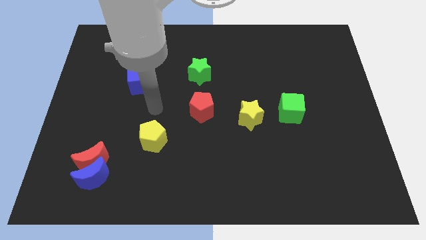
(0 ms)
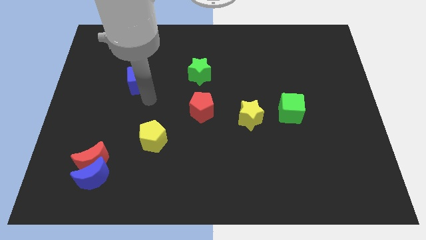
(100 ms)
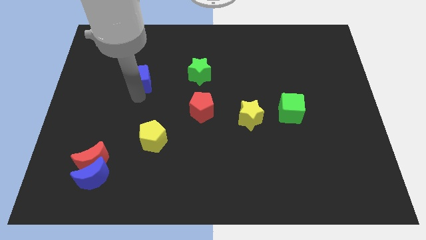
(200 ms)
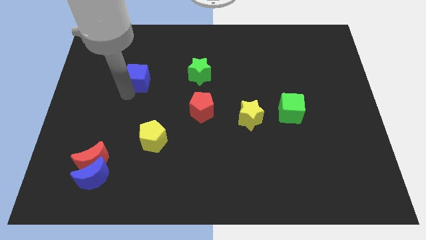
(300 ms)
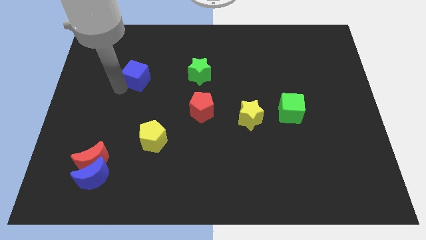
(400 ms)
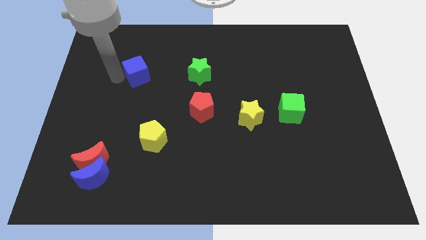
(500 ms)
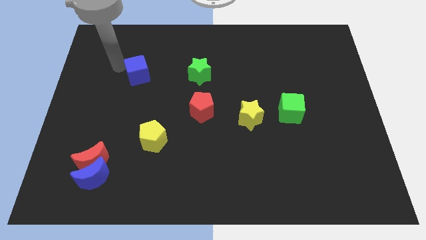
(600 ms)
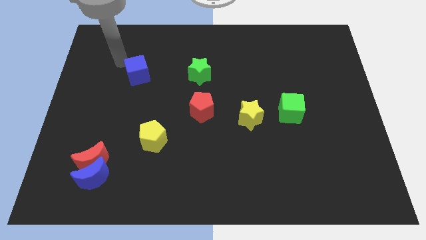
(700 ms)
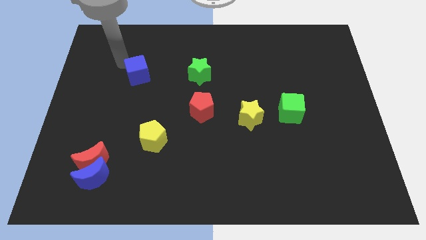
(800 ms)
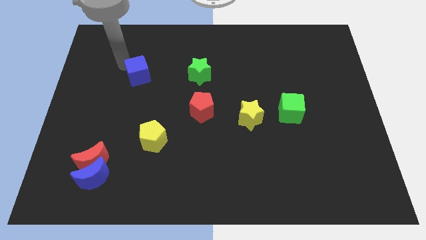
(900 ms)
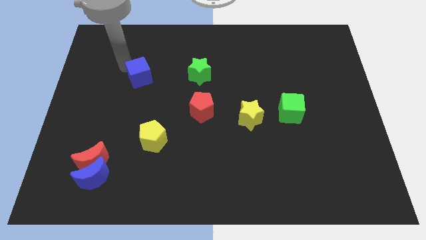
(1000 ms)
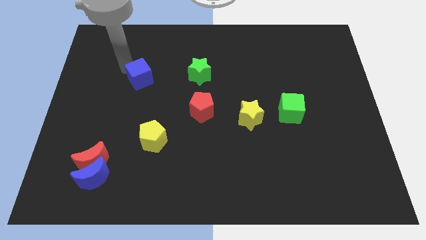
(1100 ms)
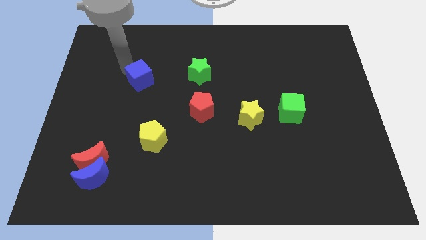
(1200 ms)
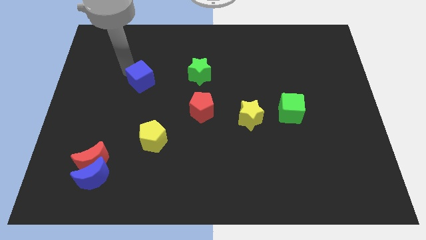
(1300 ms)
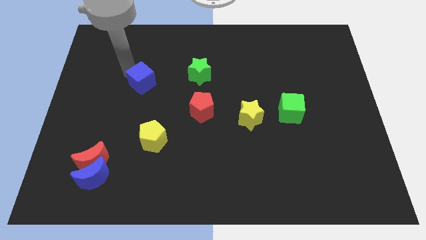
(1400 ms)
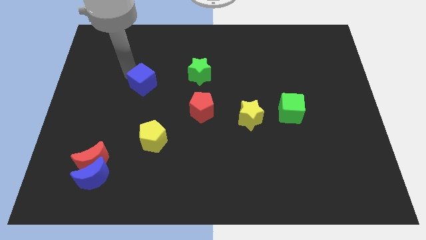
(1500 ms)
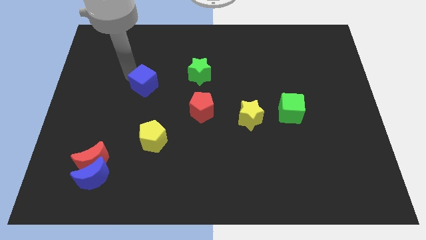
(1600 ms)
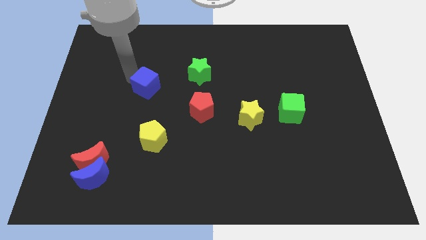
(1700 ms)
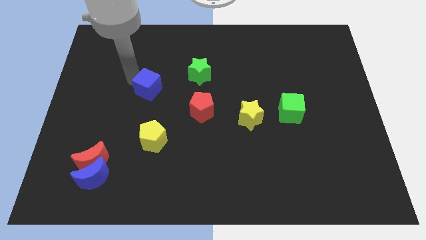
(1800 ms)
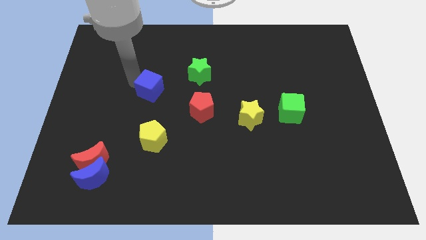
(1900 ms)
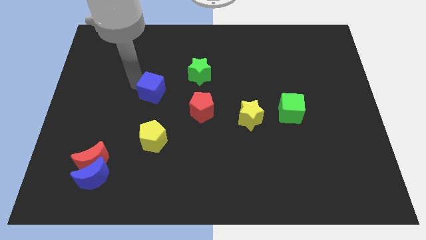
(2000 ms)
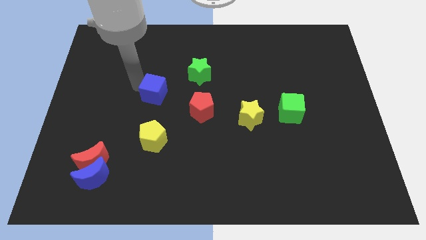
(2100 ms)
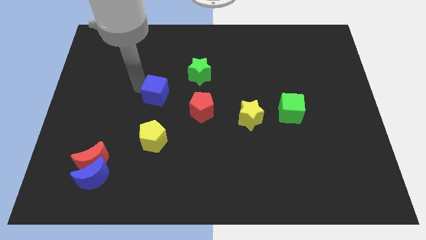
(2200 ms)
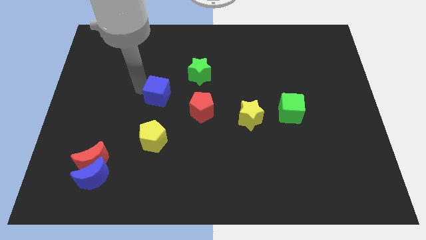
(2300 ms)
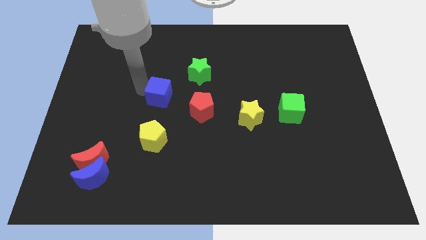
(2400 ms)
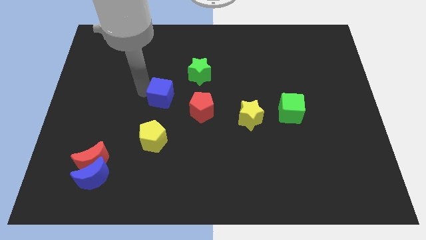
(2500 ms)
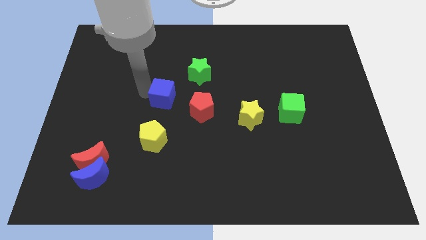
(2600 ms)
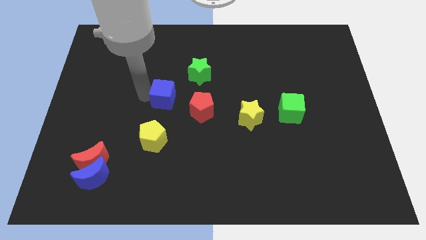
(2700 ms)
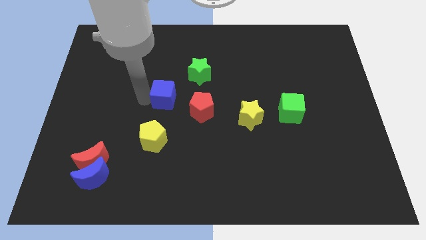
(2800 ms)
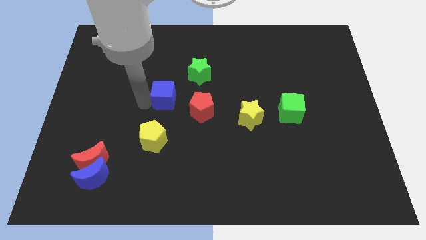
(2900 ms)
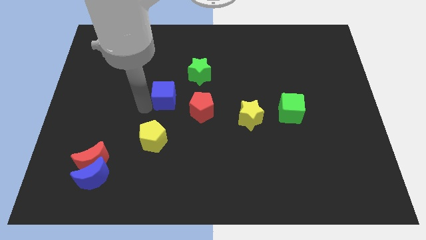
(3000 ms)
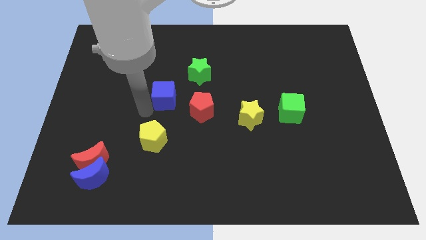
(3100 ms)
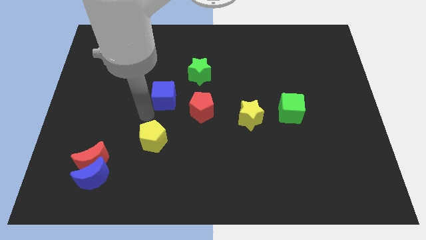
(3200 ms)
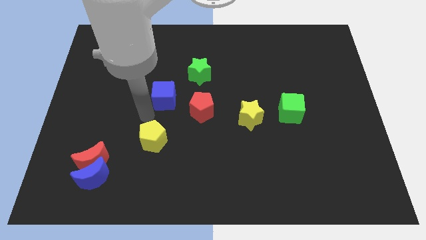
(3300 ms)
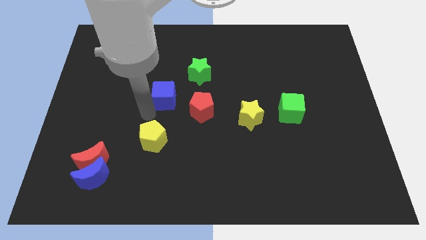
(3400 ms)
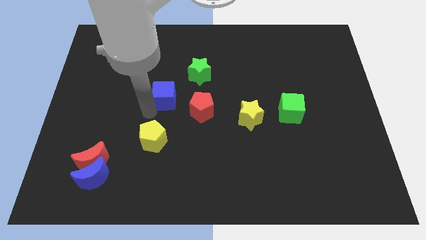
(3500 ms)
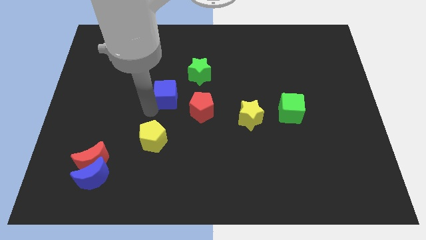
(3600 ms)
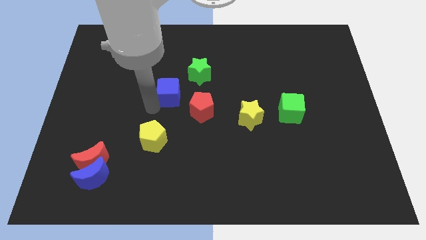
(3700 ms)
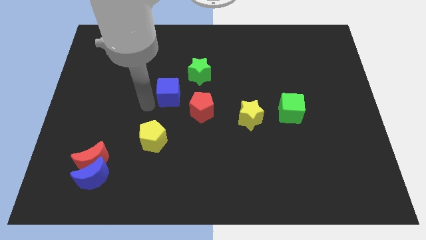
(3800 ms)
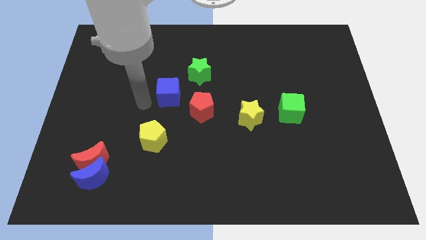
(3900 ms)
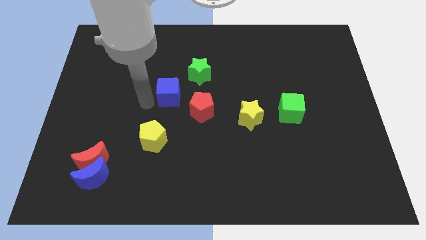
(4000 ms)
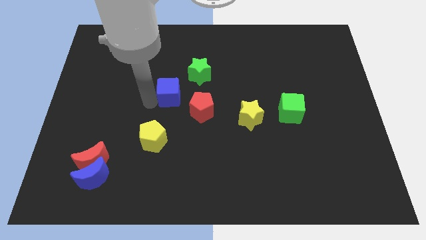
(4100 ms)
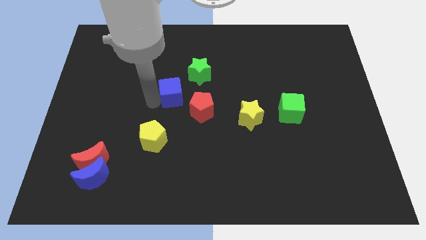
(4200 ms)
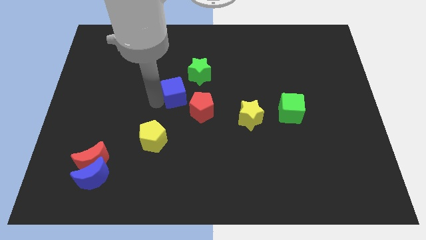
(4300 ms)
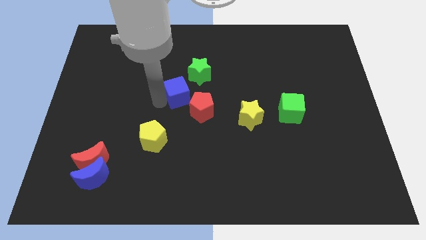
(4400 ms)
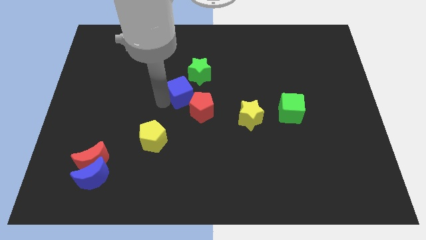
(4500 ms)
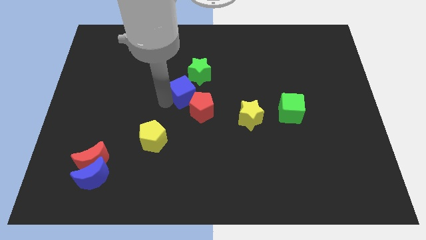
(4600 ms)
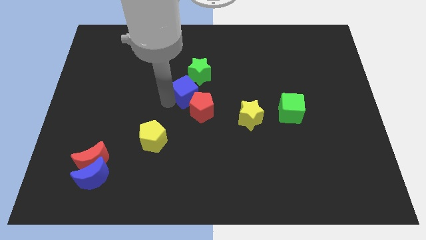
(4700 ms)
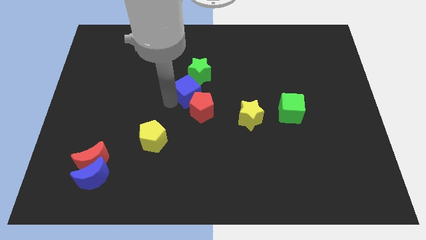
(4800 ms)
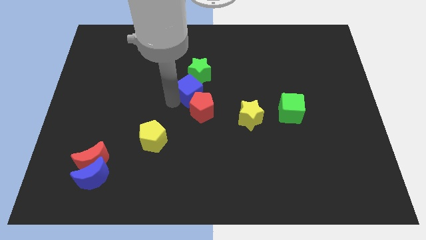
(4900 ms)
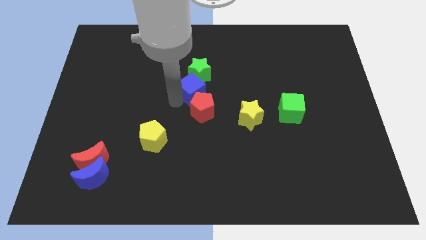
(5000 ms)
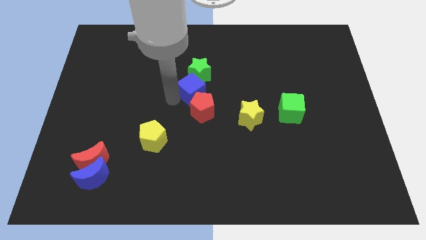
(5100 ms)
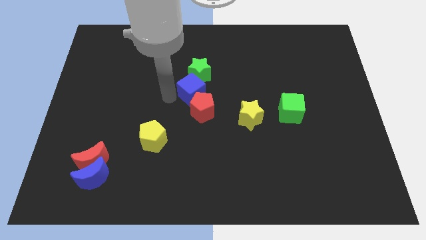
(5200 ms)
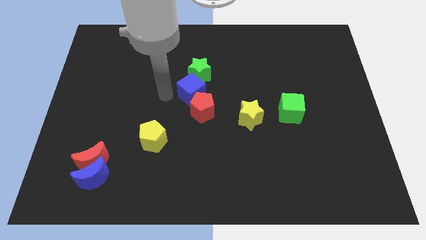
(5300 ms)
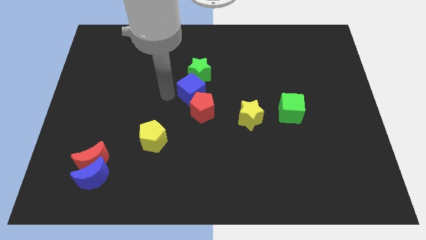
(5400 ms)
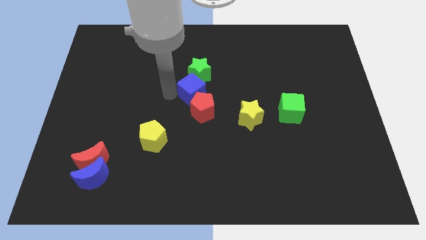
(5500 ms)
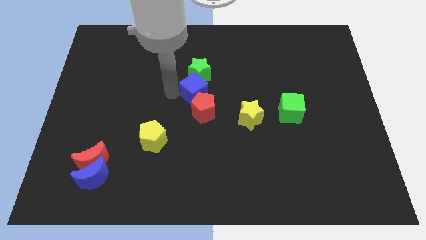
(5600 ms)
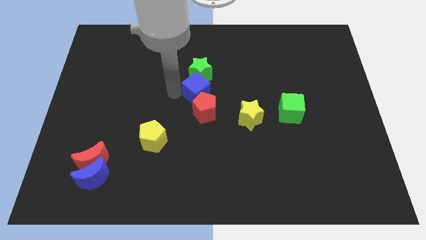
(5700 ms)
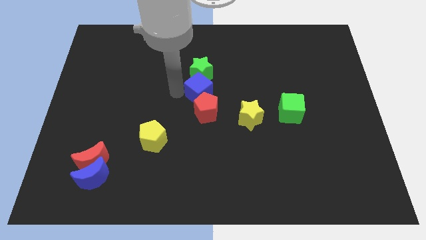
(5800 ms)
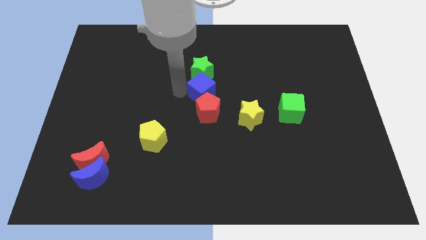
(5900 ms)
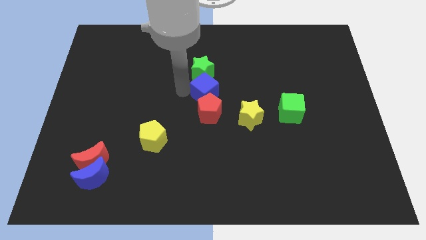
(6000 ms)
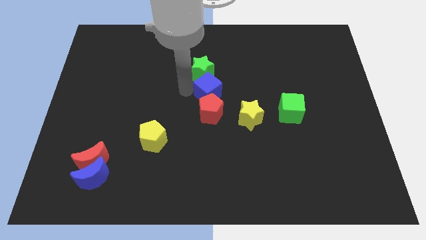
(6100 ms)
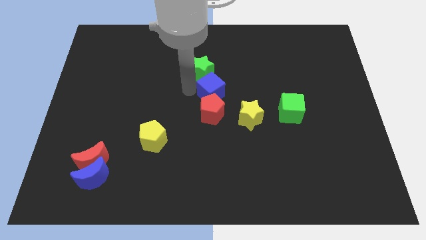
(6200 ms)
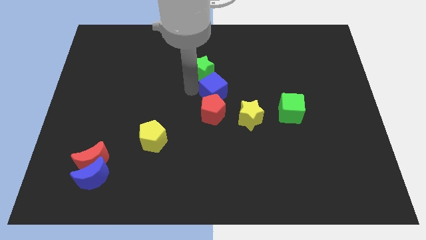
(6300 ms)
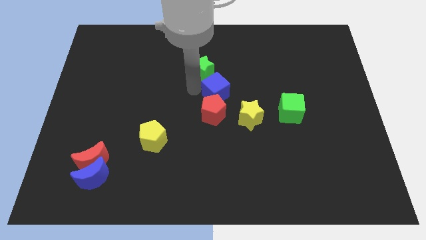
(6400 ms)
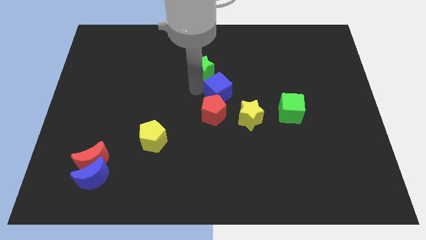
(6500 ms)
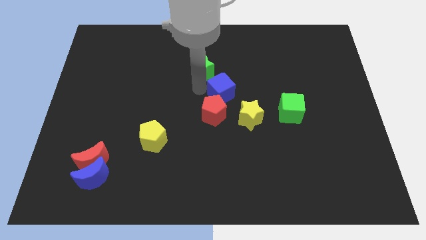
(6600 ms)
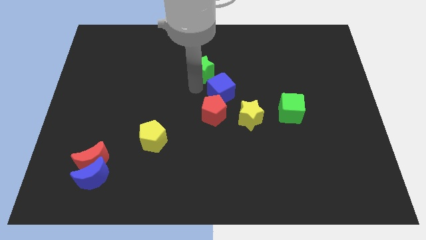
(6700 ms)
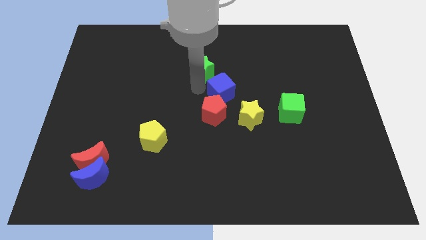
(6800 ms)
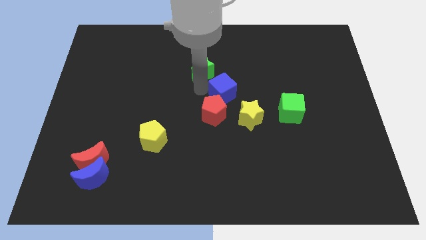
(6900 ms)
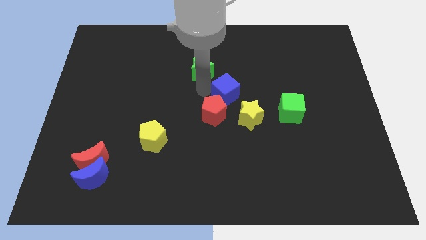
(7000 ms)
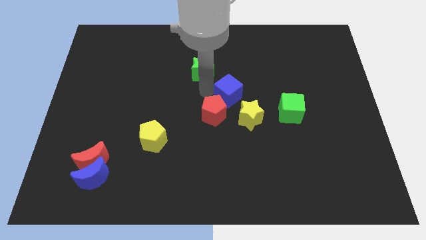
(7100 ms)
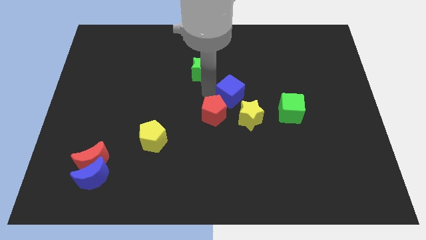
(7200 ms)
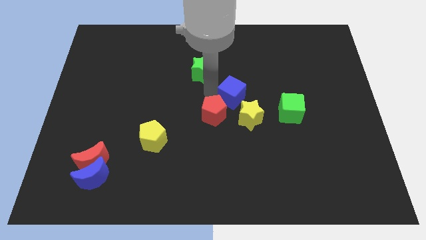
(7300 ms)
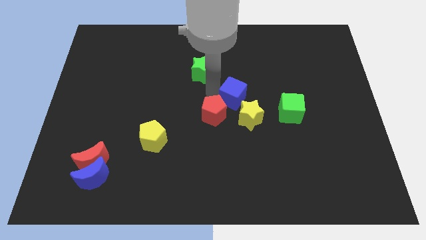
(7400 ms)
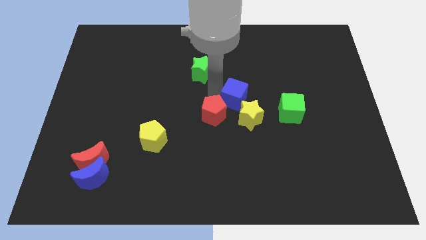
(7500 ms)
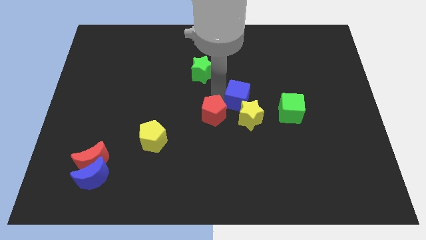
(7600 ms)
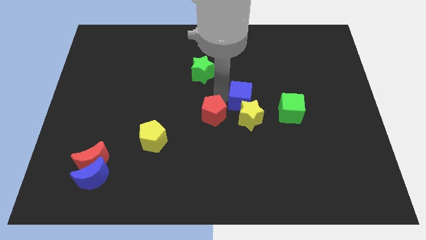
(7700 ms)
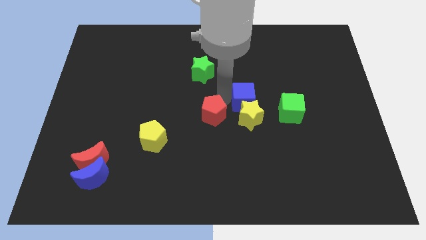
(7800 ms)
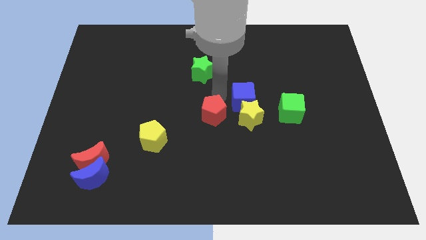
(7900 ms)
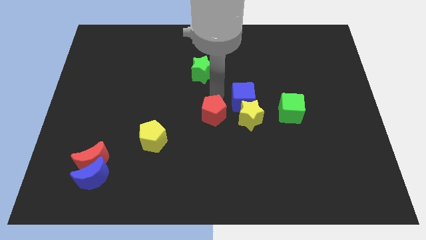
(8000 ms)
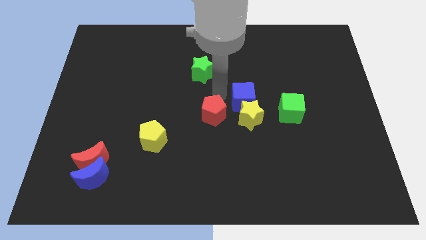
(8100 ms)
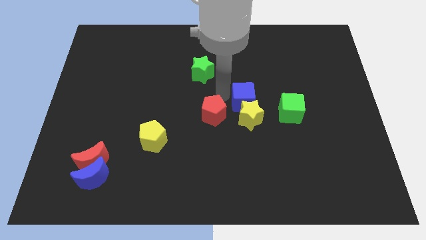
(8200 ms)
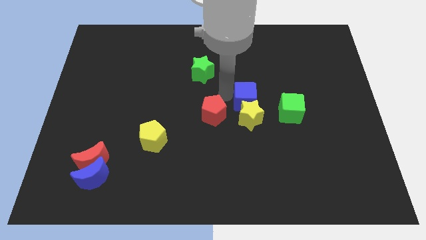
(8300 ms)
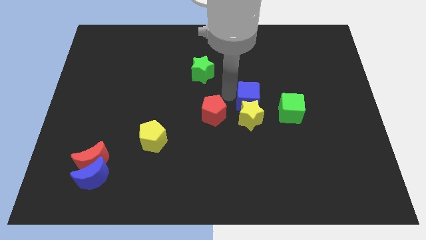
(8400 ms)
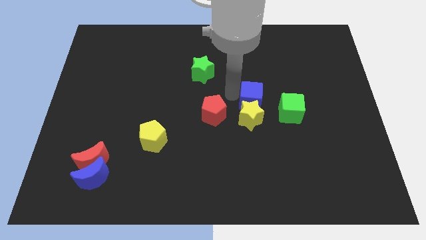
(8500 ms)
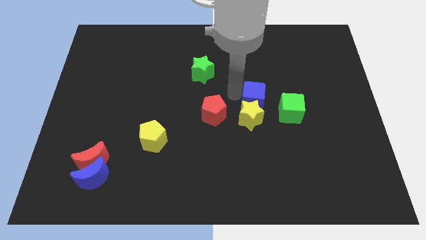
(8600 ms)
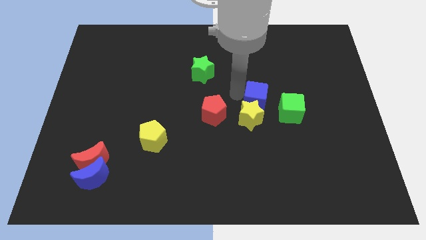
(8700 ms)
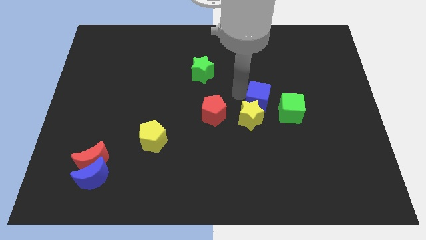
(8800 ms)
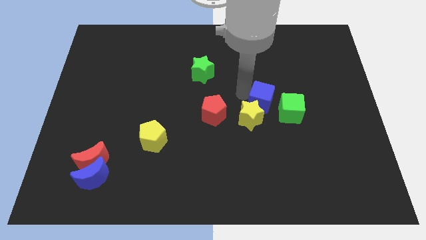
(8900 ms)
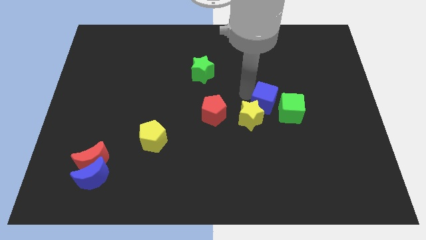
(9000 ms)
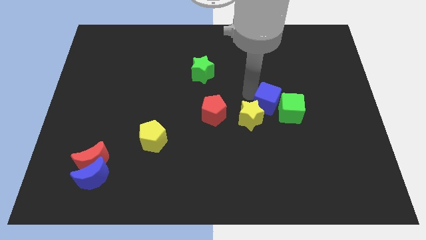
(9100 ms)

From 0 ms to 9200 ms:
put the blue cube towards the green cube
